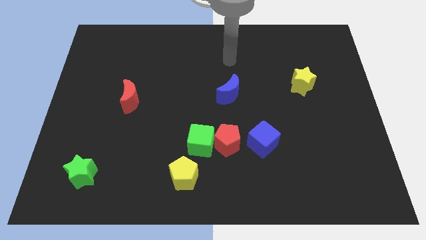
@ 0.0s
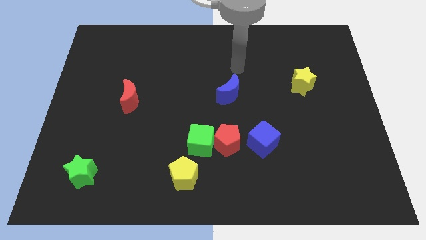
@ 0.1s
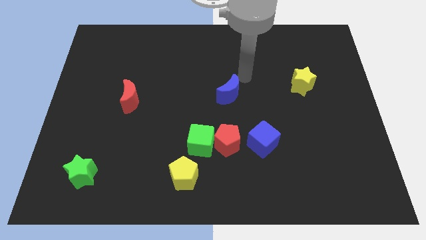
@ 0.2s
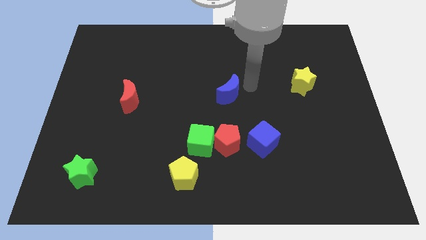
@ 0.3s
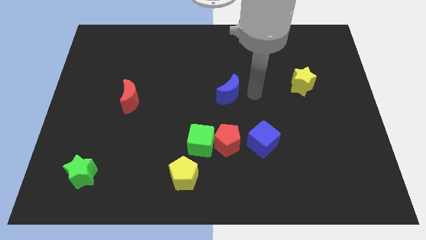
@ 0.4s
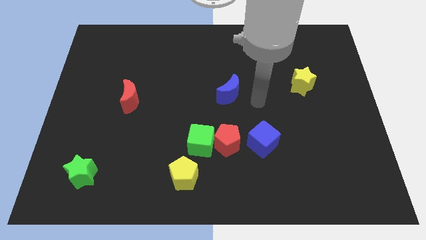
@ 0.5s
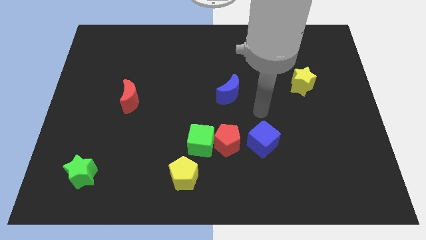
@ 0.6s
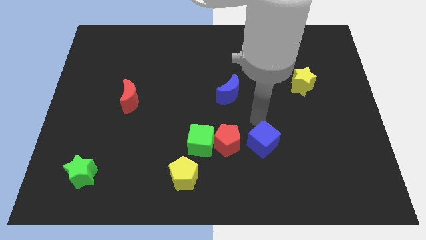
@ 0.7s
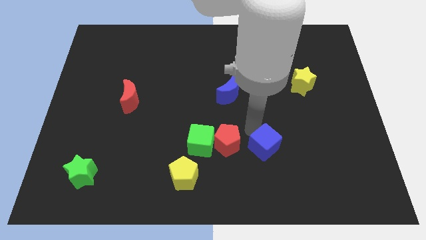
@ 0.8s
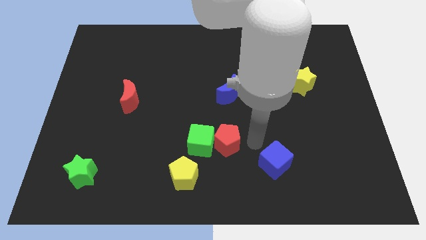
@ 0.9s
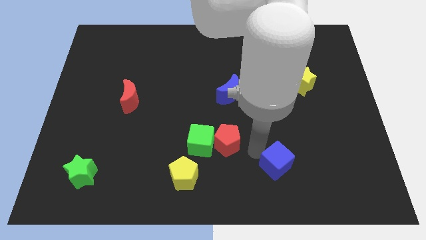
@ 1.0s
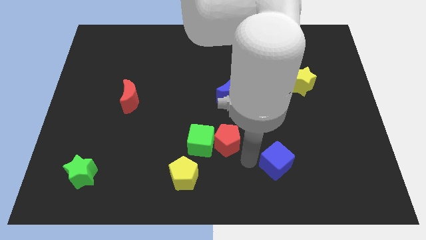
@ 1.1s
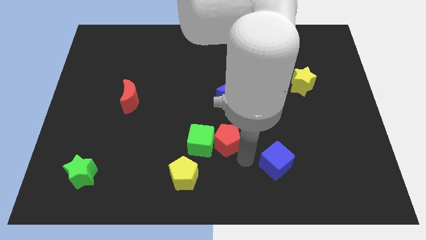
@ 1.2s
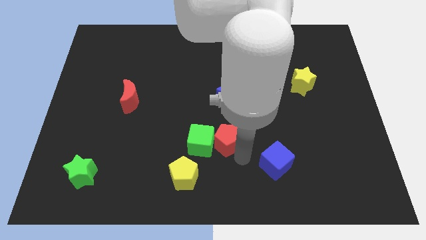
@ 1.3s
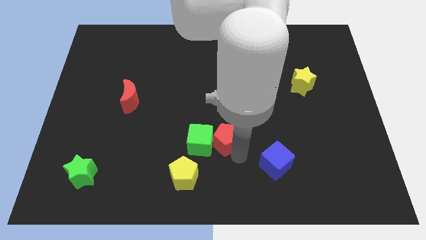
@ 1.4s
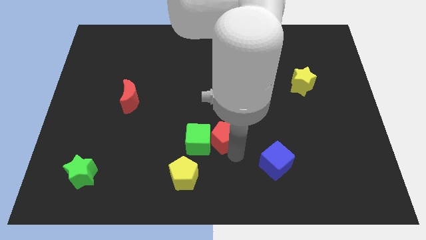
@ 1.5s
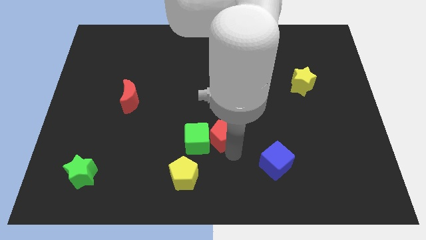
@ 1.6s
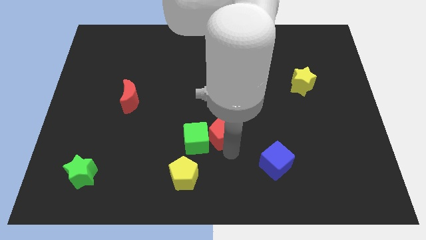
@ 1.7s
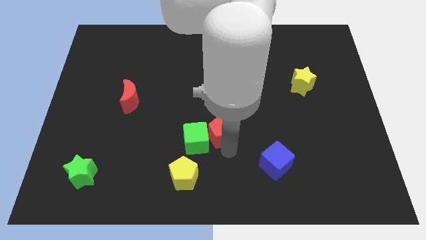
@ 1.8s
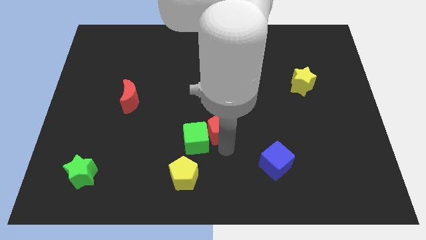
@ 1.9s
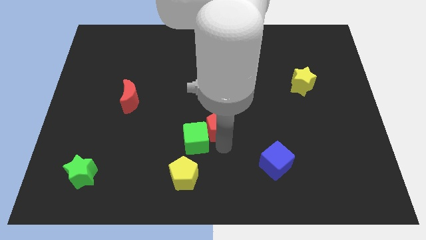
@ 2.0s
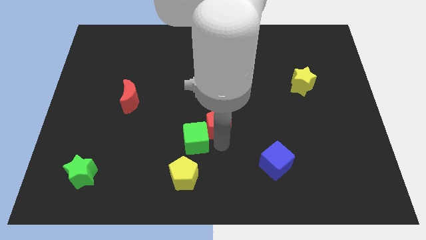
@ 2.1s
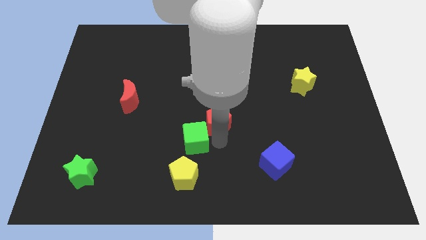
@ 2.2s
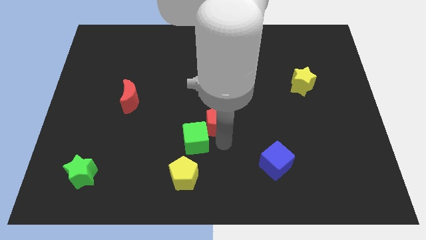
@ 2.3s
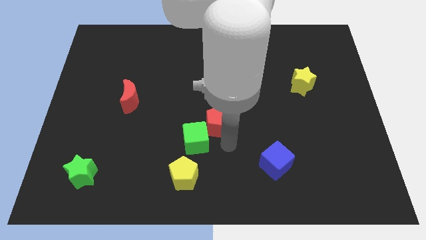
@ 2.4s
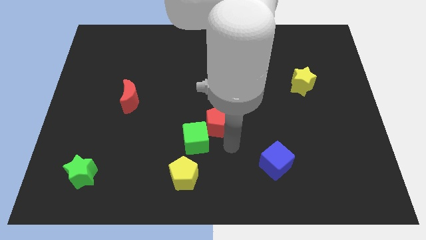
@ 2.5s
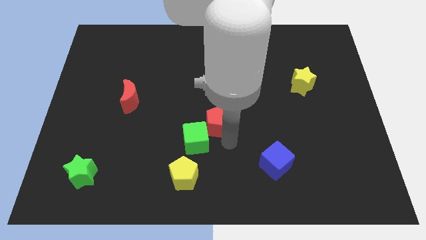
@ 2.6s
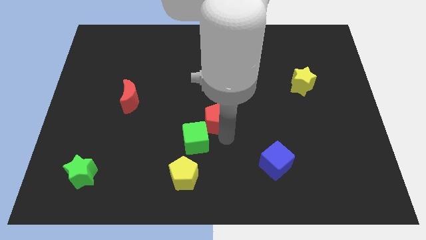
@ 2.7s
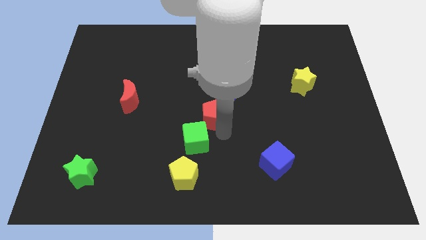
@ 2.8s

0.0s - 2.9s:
pull the red pentagon apart from the green cube and blue cube

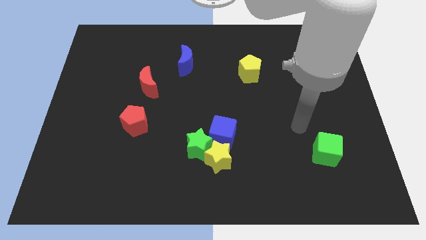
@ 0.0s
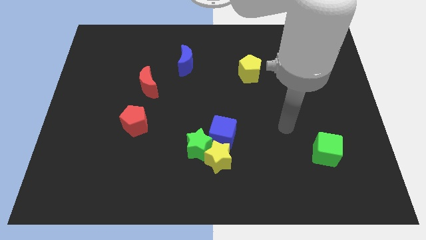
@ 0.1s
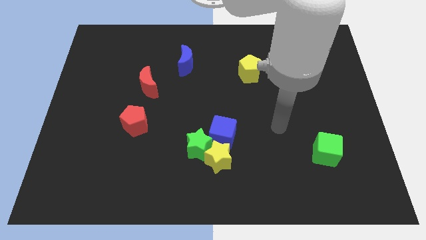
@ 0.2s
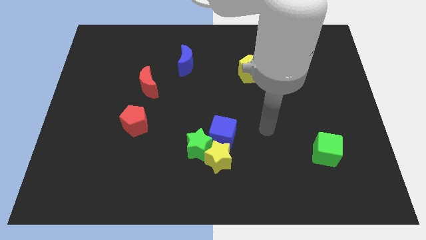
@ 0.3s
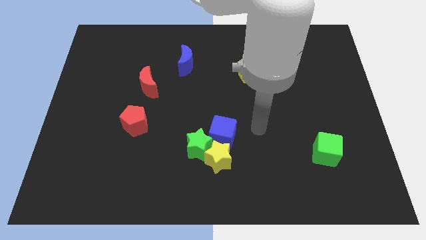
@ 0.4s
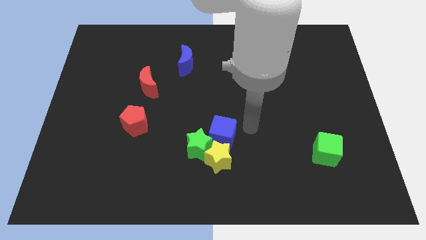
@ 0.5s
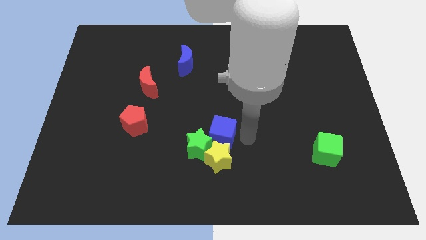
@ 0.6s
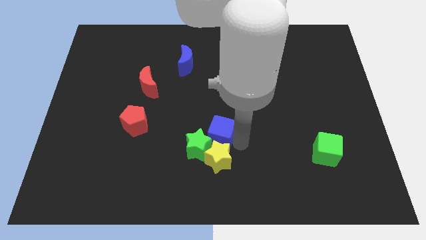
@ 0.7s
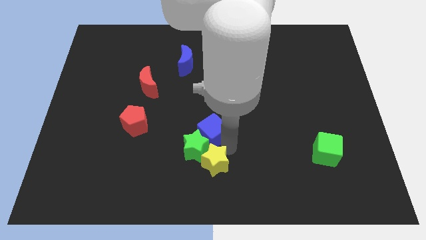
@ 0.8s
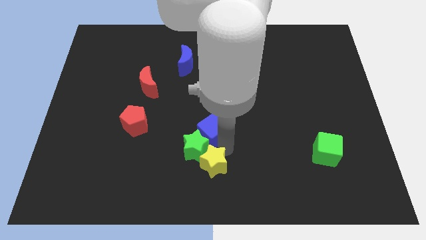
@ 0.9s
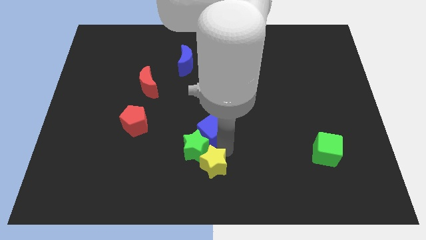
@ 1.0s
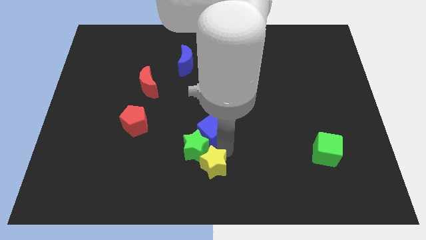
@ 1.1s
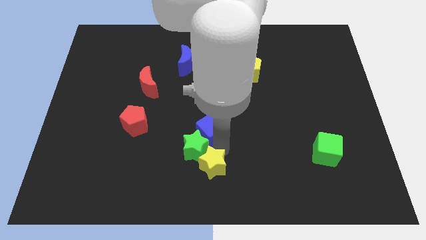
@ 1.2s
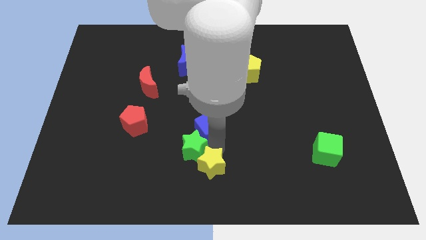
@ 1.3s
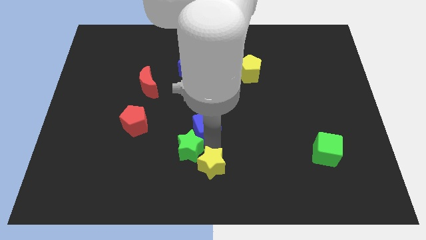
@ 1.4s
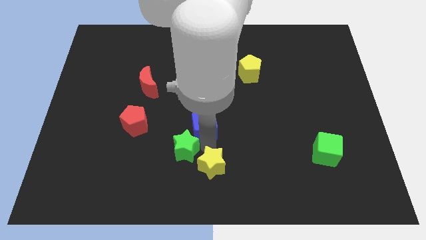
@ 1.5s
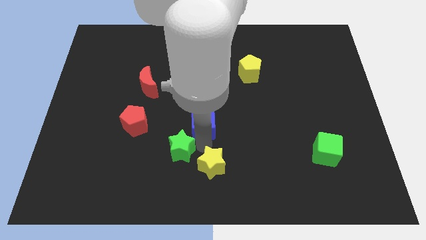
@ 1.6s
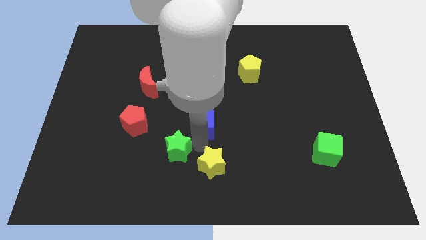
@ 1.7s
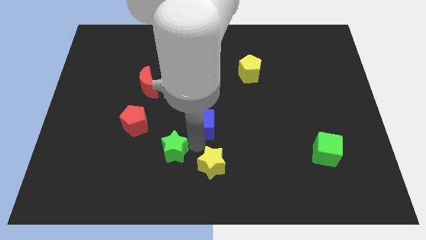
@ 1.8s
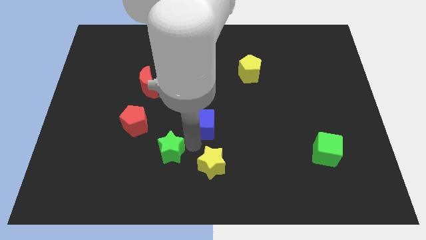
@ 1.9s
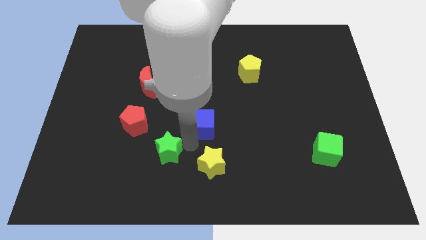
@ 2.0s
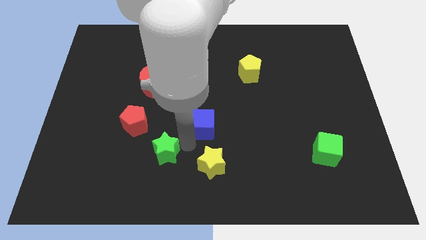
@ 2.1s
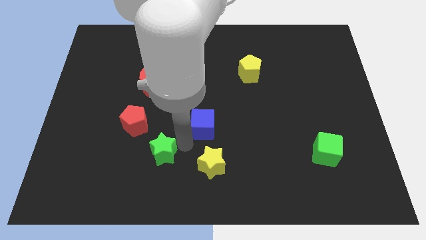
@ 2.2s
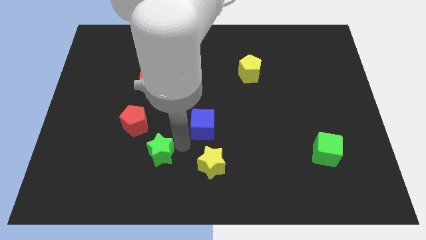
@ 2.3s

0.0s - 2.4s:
pull the green star apart from the yellow star and blue cube

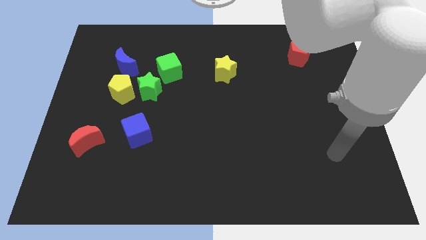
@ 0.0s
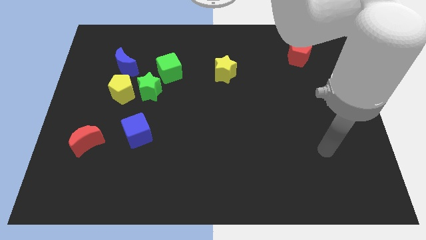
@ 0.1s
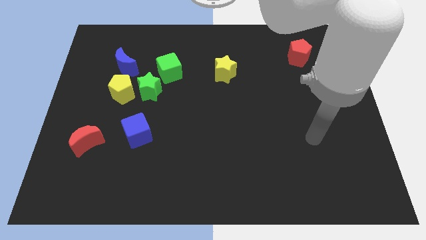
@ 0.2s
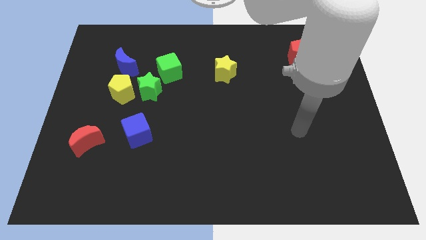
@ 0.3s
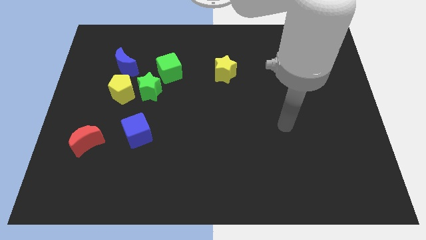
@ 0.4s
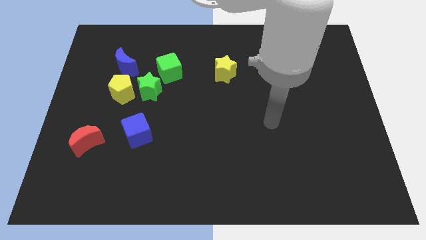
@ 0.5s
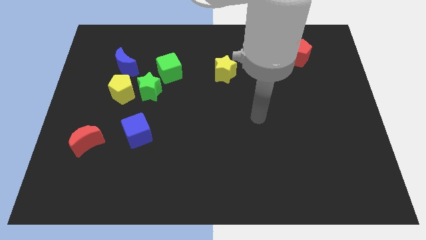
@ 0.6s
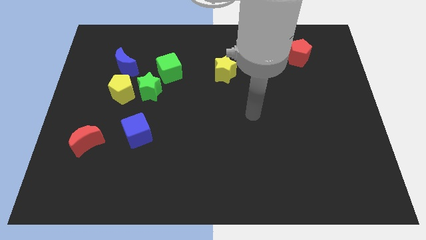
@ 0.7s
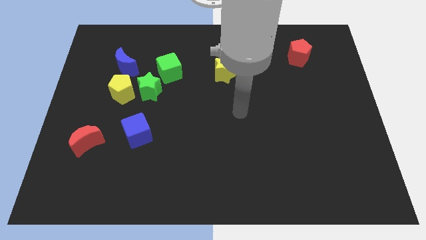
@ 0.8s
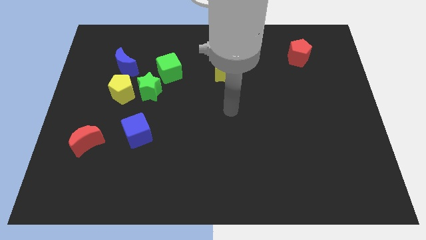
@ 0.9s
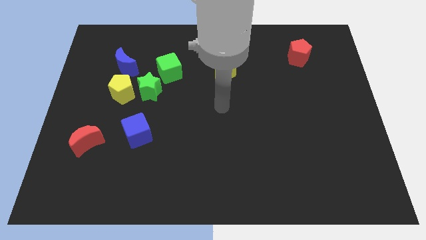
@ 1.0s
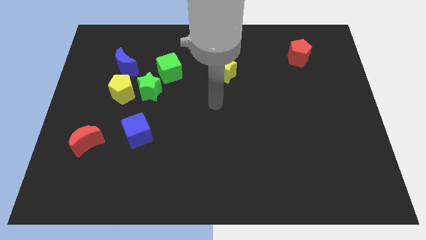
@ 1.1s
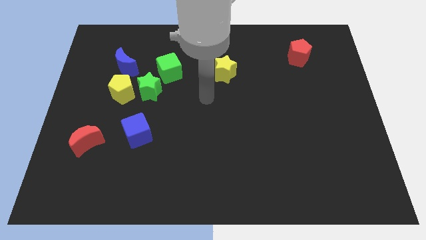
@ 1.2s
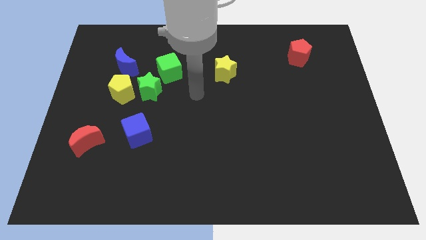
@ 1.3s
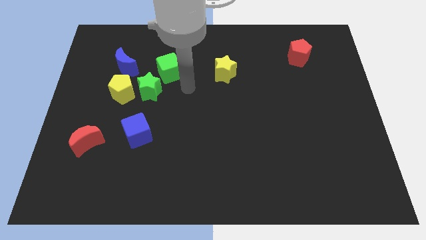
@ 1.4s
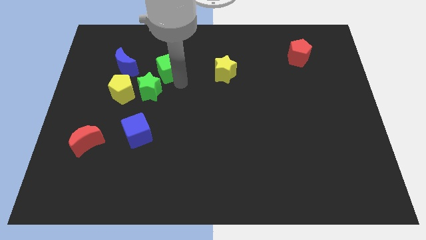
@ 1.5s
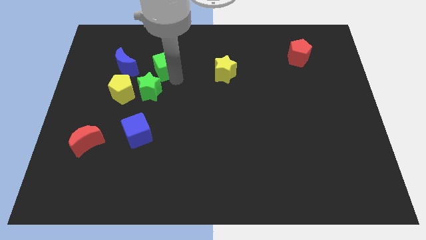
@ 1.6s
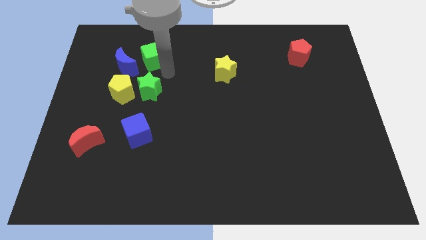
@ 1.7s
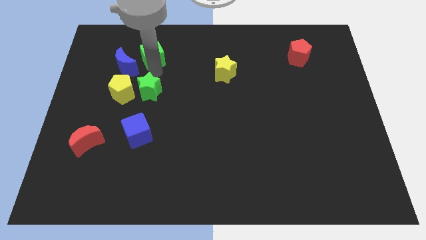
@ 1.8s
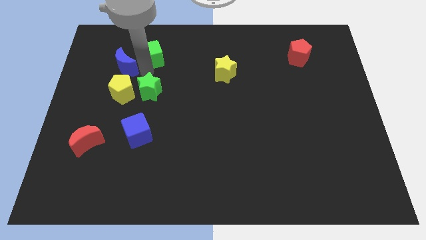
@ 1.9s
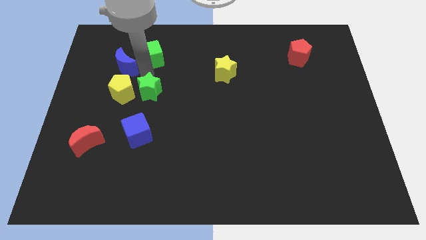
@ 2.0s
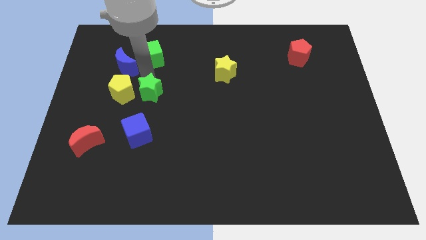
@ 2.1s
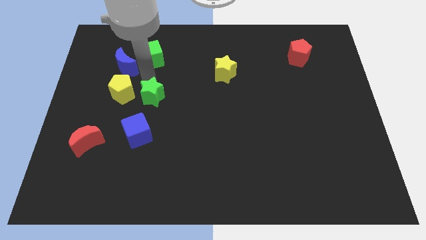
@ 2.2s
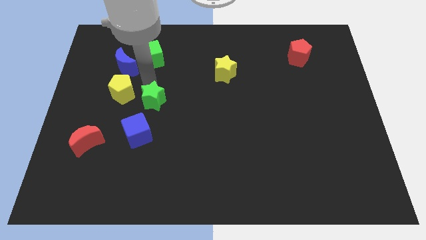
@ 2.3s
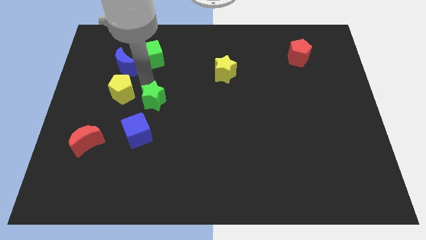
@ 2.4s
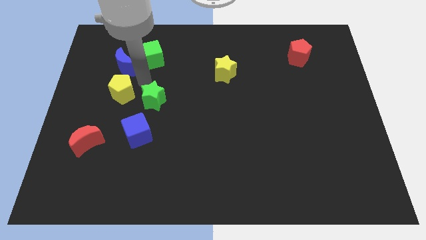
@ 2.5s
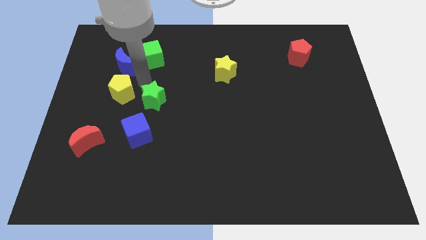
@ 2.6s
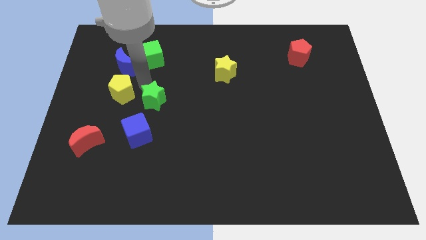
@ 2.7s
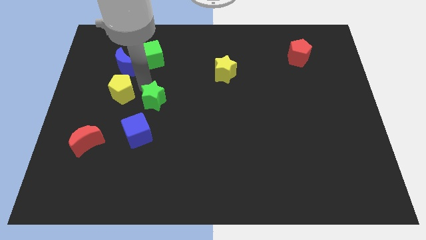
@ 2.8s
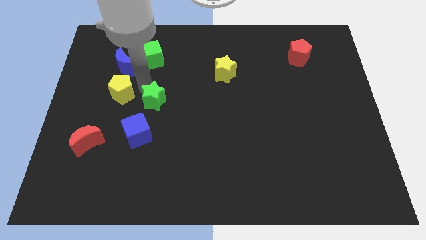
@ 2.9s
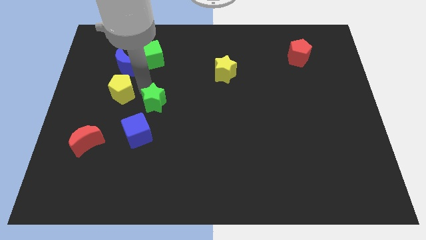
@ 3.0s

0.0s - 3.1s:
move the green star away from the yellow pentagon and green cube

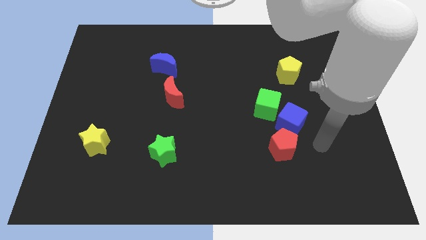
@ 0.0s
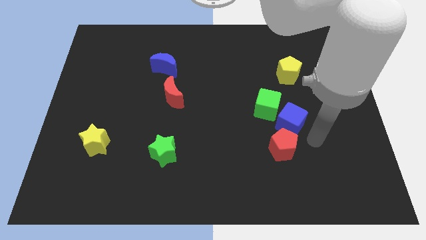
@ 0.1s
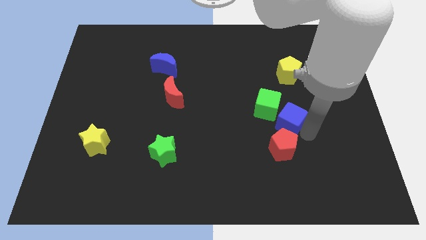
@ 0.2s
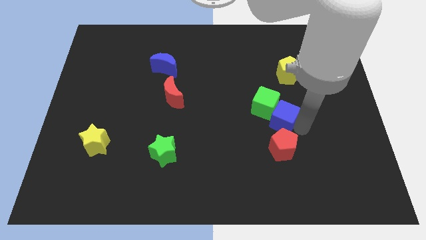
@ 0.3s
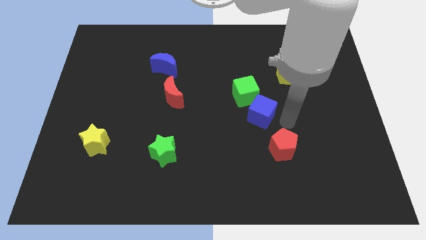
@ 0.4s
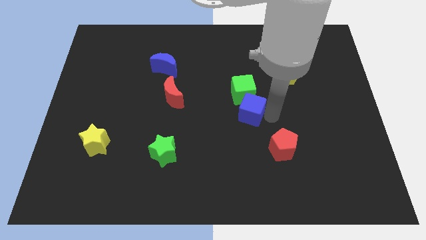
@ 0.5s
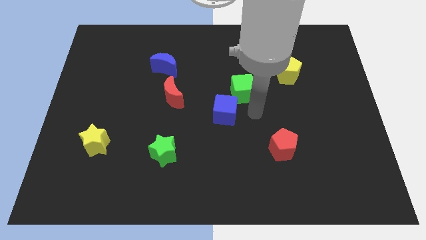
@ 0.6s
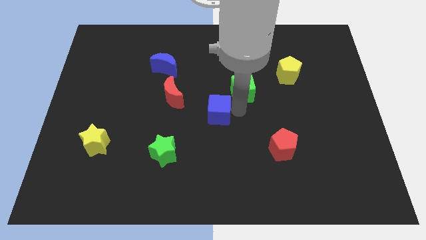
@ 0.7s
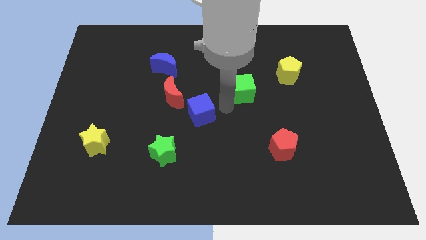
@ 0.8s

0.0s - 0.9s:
separate the green cube from the blue cube

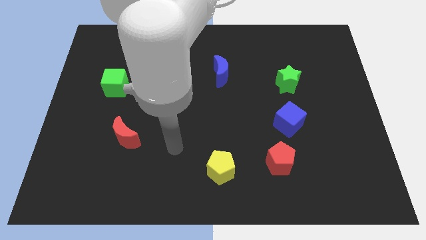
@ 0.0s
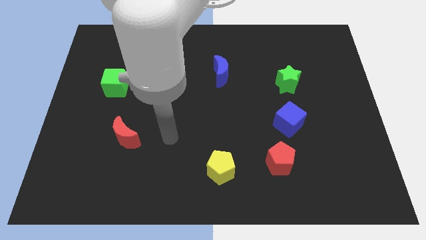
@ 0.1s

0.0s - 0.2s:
separate the green cube from the yellow star
